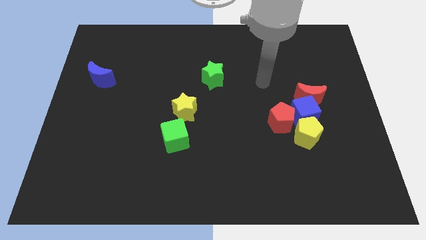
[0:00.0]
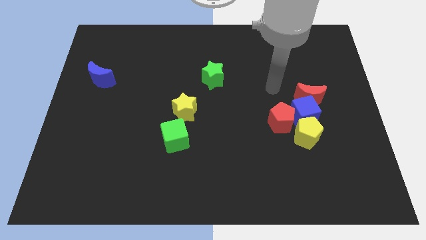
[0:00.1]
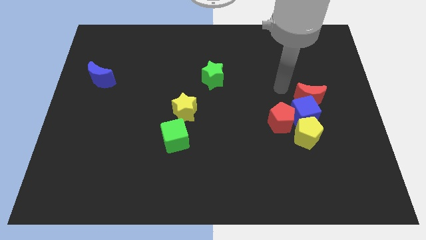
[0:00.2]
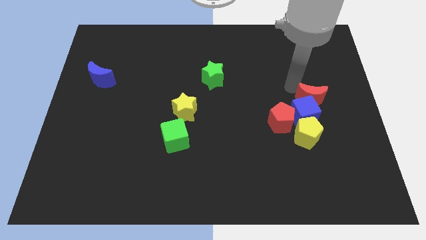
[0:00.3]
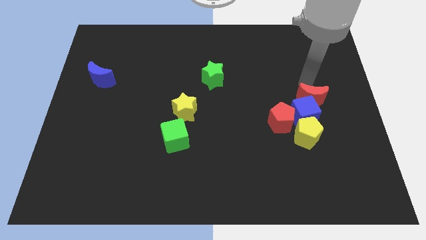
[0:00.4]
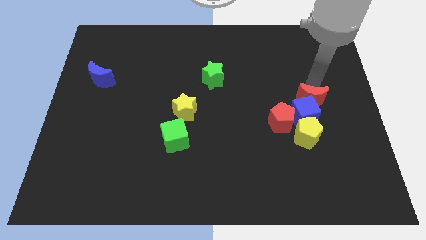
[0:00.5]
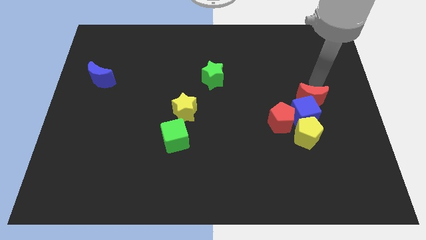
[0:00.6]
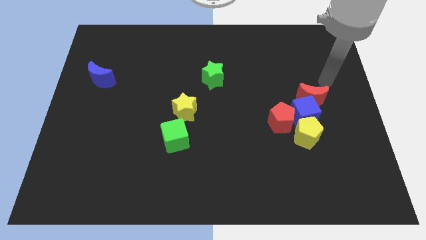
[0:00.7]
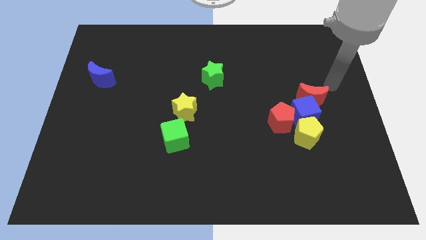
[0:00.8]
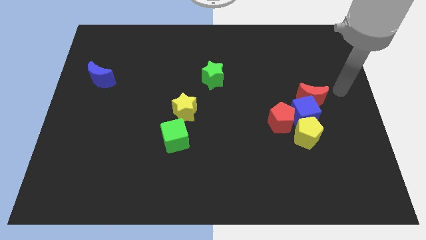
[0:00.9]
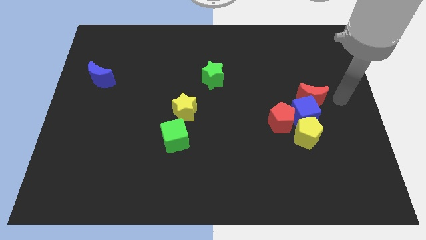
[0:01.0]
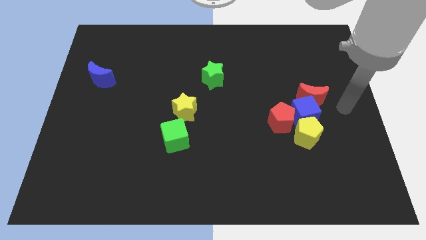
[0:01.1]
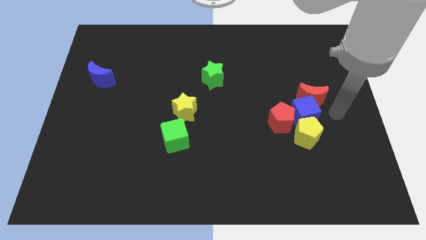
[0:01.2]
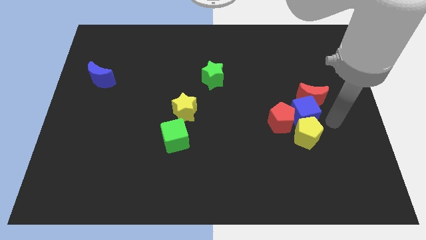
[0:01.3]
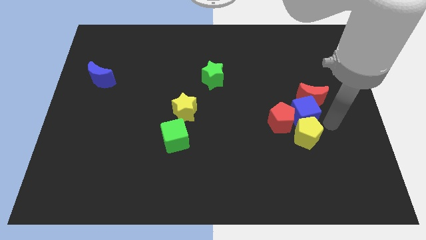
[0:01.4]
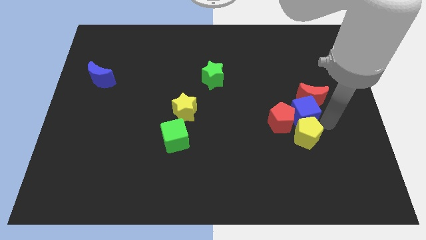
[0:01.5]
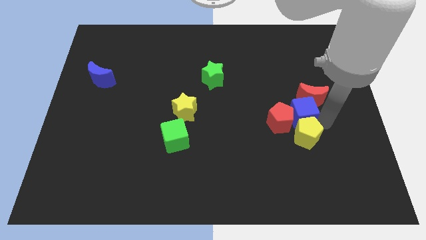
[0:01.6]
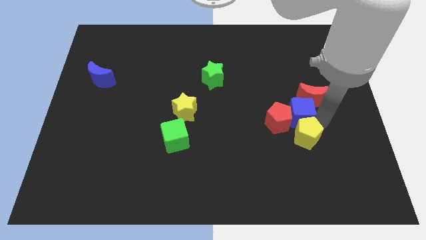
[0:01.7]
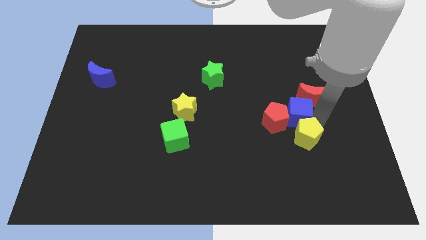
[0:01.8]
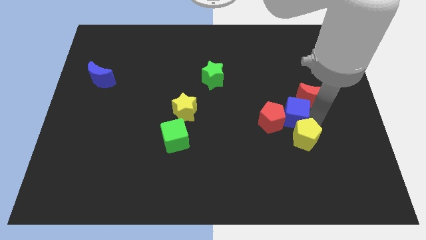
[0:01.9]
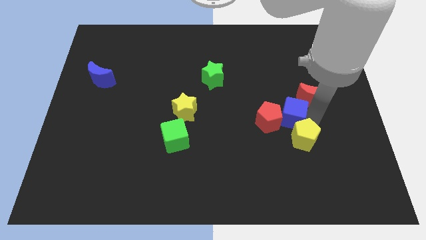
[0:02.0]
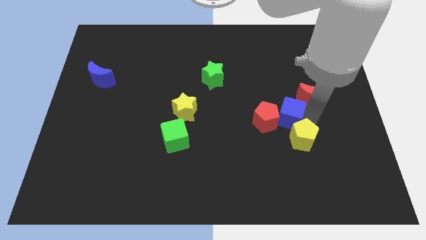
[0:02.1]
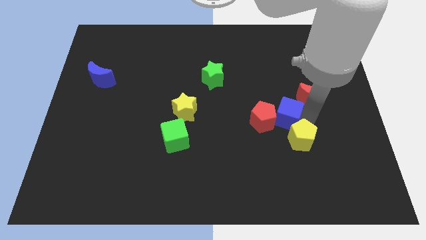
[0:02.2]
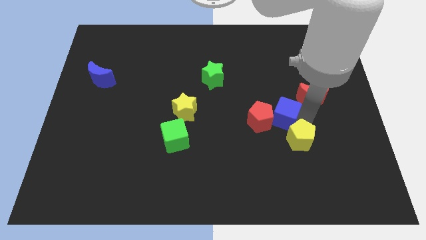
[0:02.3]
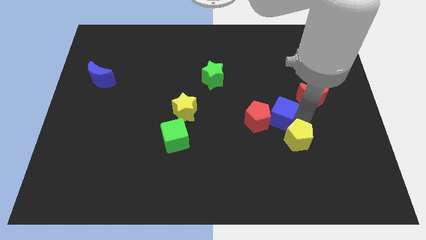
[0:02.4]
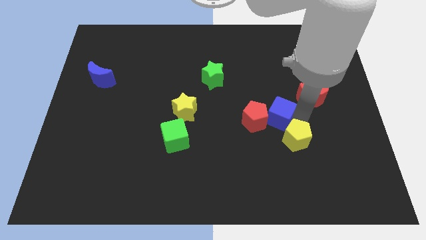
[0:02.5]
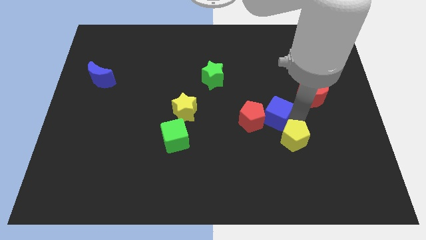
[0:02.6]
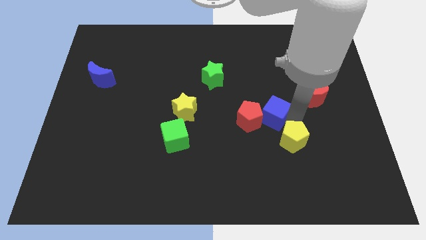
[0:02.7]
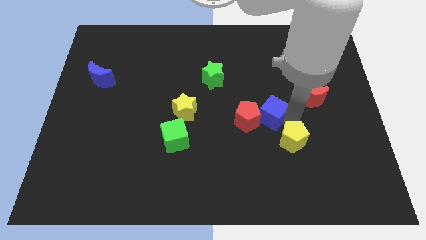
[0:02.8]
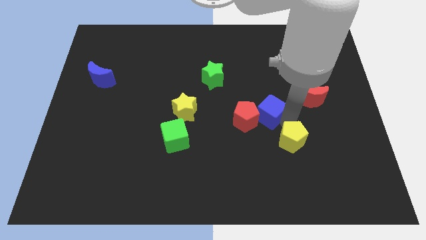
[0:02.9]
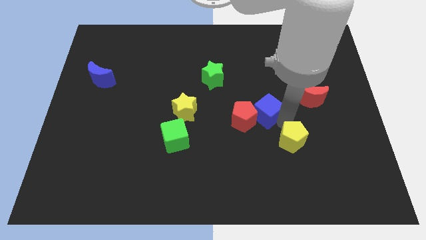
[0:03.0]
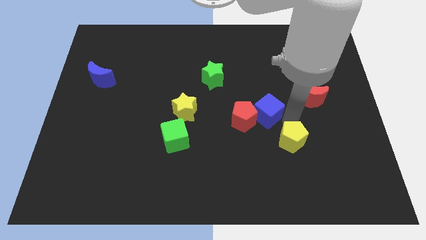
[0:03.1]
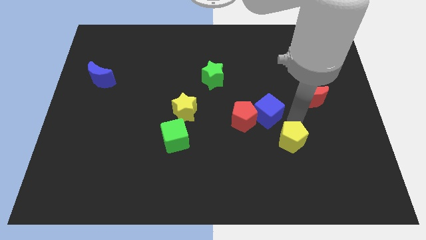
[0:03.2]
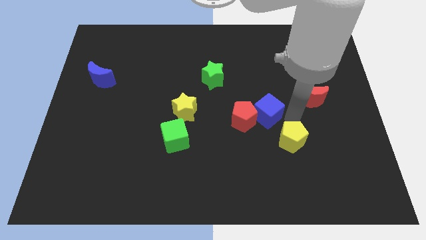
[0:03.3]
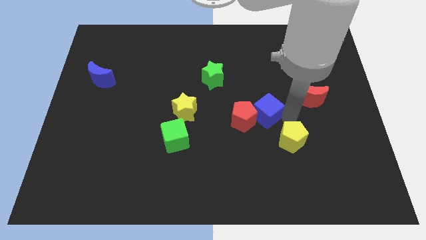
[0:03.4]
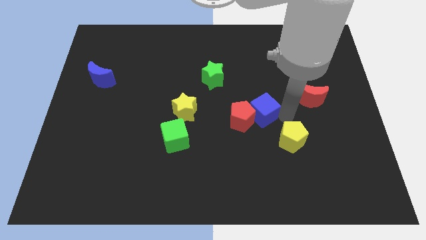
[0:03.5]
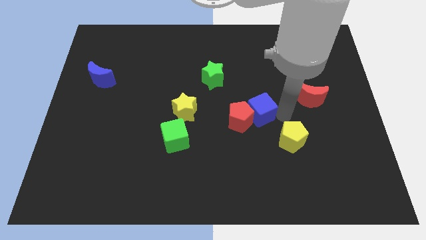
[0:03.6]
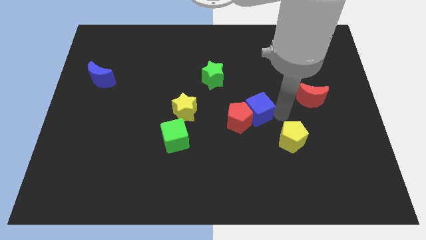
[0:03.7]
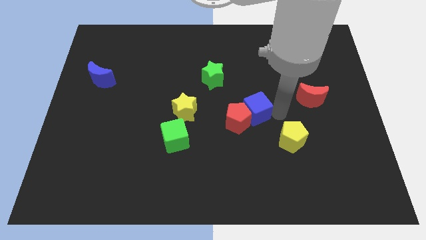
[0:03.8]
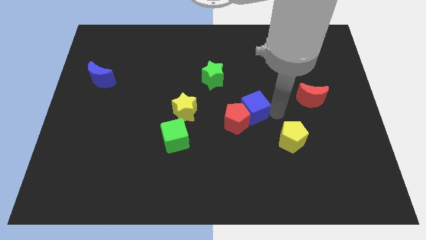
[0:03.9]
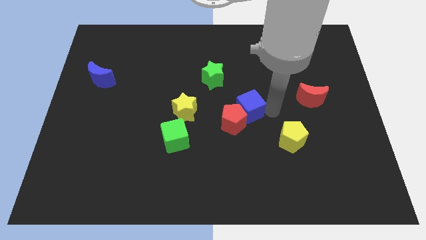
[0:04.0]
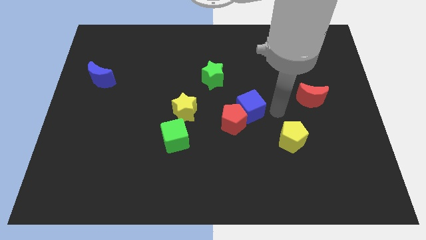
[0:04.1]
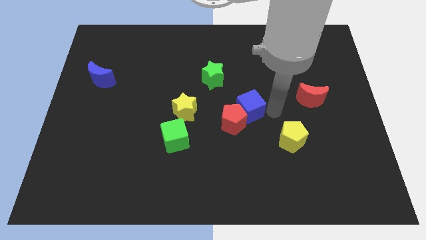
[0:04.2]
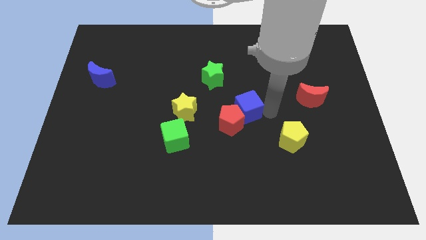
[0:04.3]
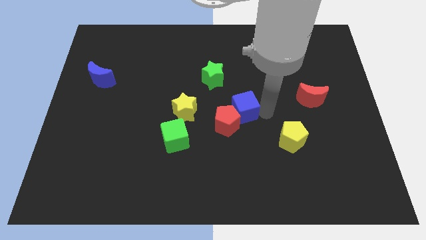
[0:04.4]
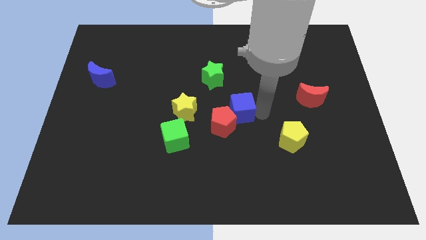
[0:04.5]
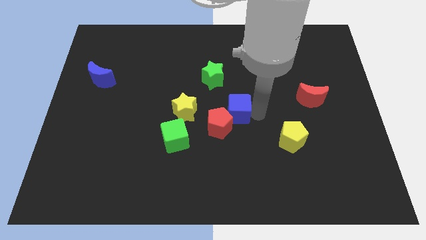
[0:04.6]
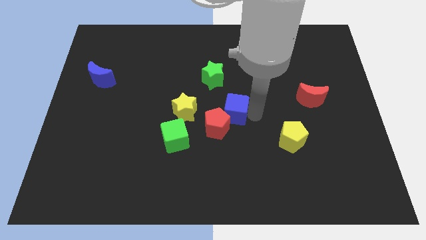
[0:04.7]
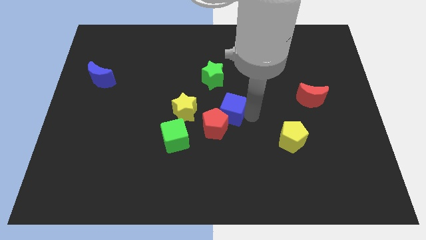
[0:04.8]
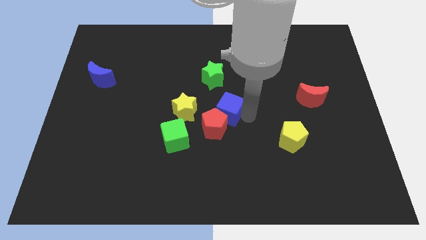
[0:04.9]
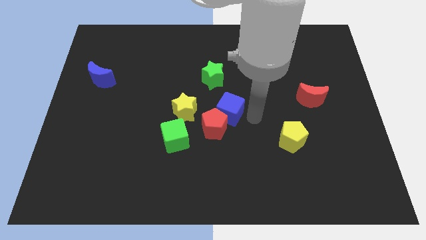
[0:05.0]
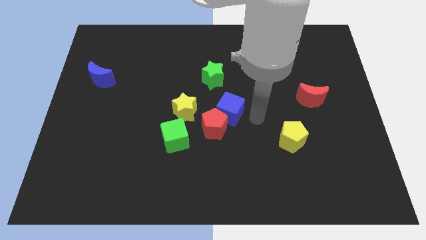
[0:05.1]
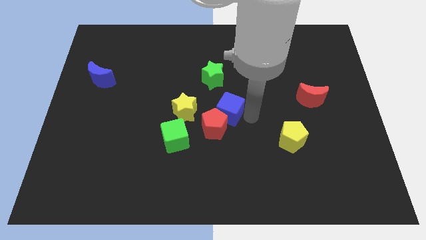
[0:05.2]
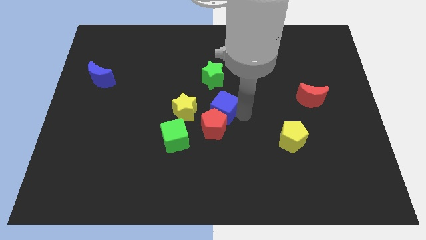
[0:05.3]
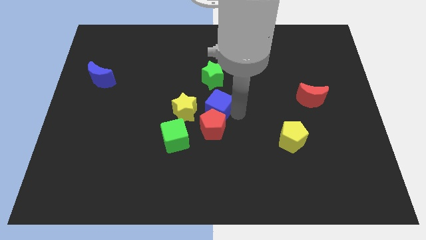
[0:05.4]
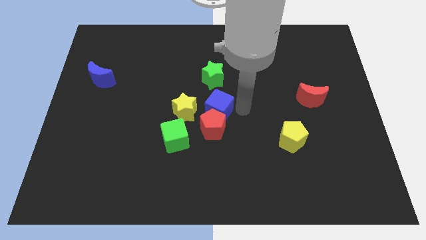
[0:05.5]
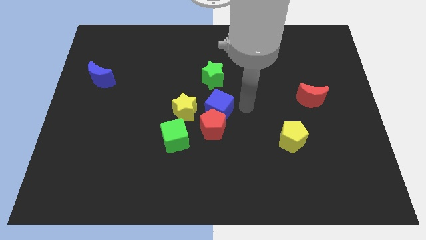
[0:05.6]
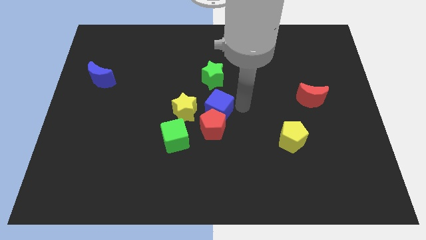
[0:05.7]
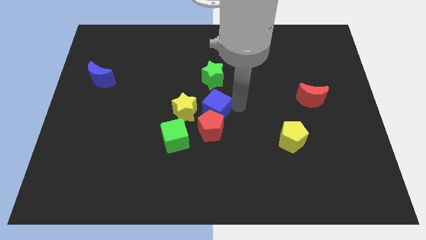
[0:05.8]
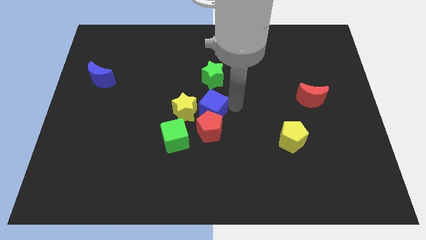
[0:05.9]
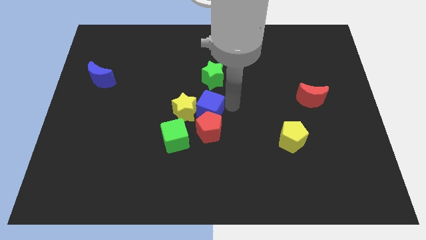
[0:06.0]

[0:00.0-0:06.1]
move the blue cube next to the yellow star
